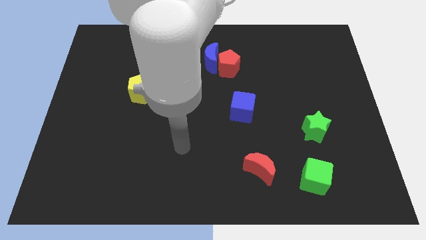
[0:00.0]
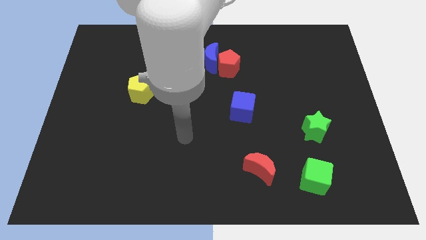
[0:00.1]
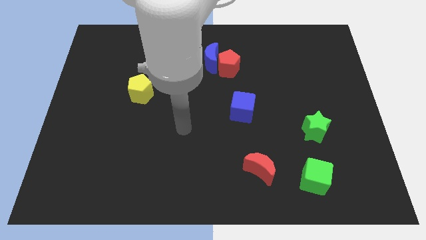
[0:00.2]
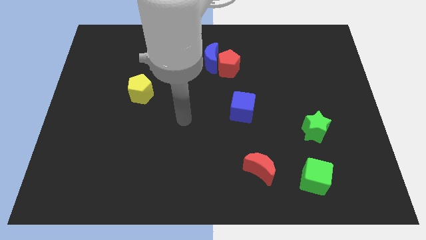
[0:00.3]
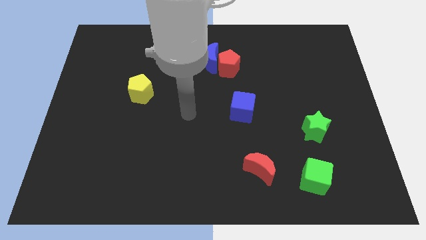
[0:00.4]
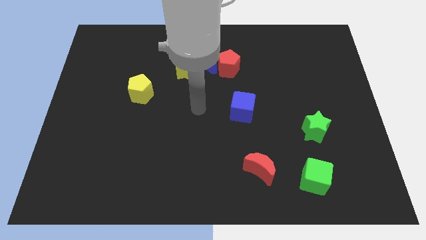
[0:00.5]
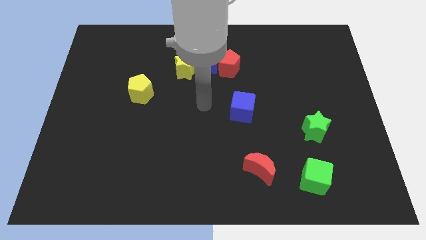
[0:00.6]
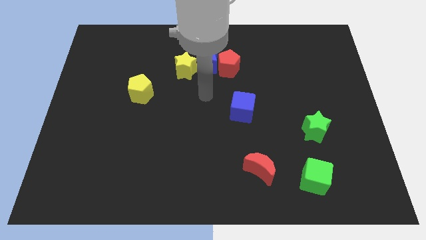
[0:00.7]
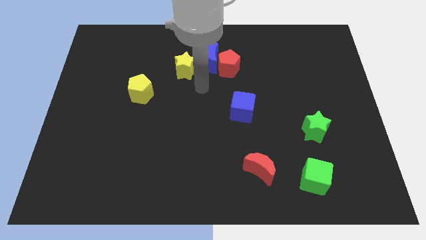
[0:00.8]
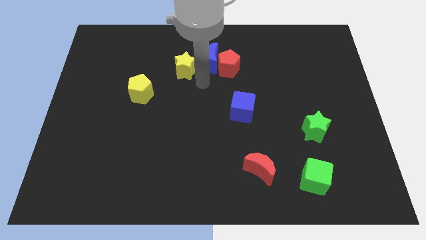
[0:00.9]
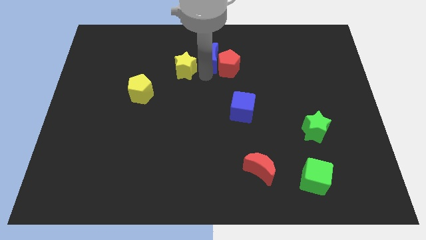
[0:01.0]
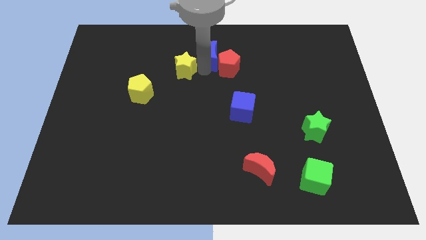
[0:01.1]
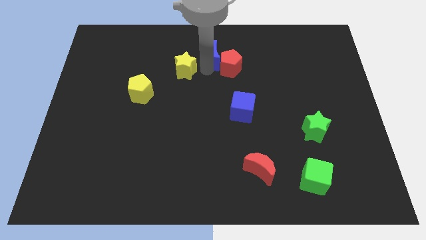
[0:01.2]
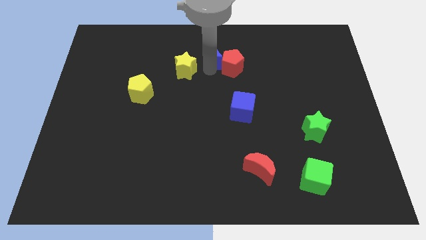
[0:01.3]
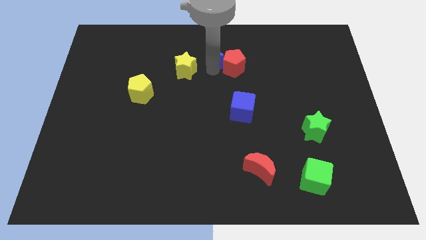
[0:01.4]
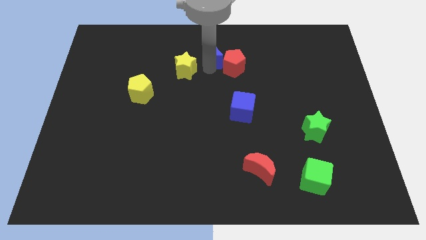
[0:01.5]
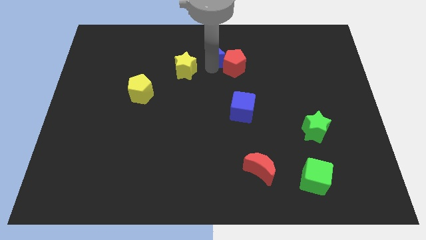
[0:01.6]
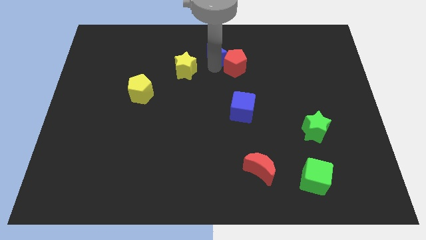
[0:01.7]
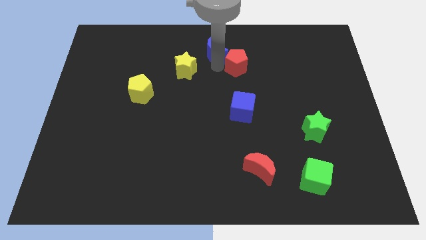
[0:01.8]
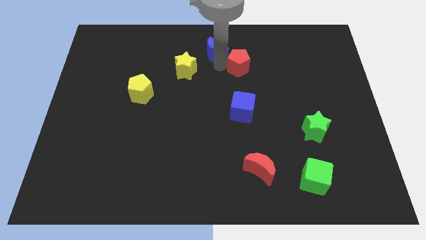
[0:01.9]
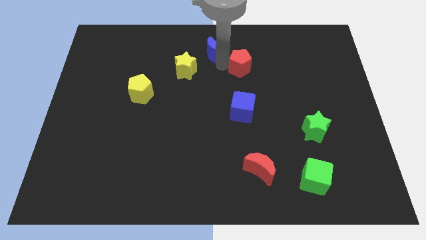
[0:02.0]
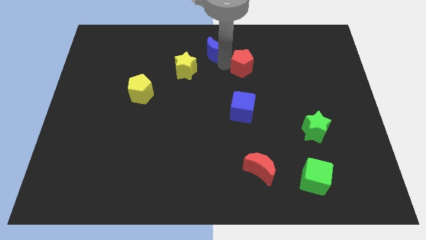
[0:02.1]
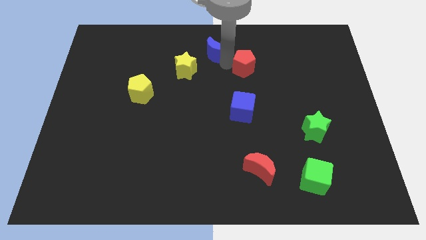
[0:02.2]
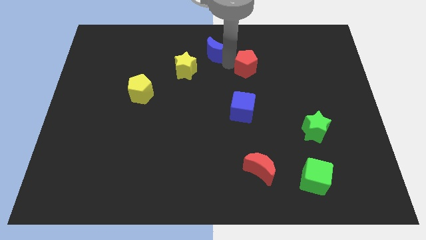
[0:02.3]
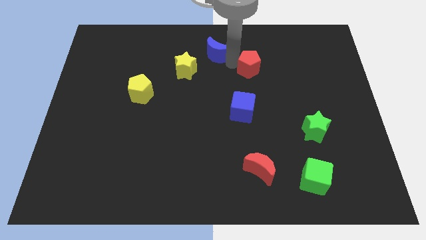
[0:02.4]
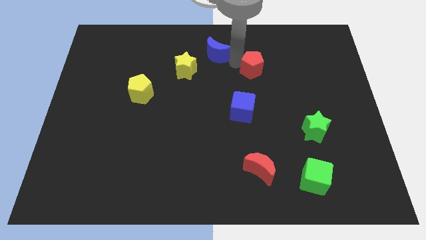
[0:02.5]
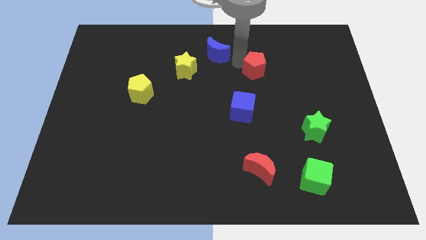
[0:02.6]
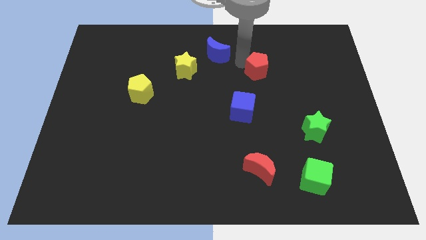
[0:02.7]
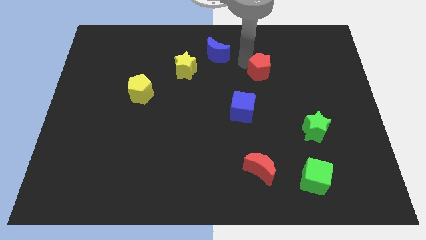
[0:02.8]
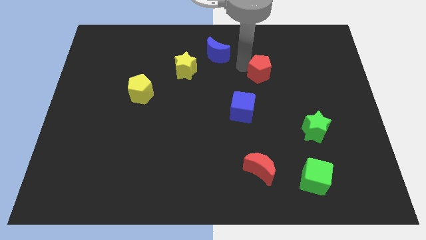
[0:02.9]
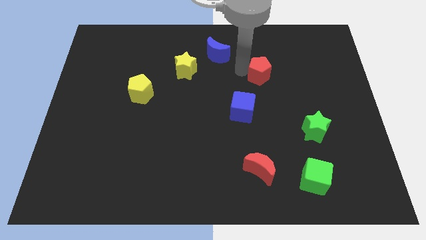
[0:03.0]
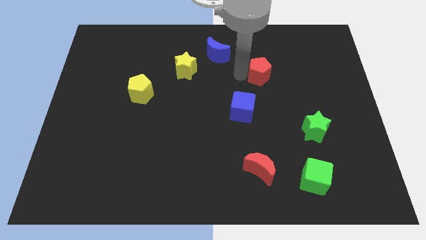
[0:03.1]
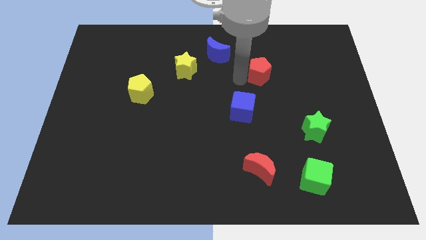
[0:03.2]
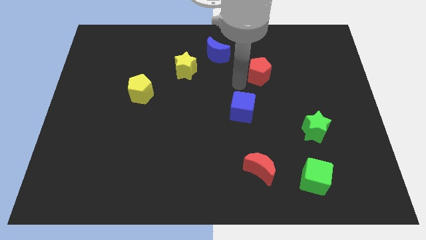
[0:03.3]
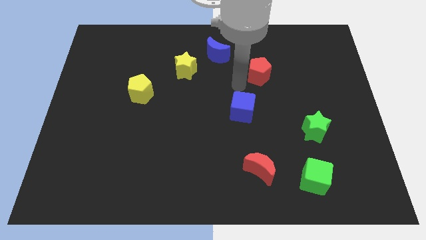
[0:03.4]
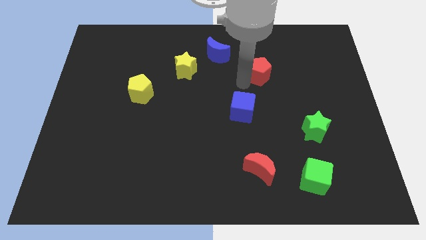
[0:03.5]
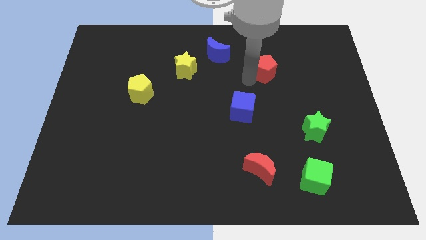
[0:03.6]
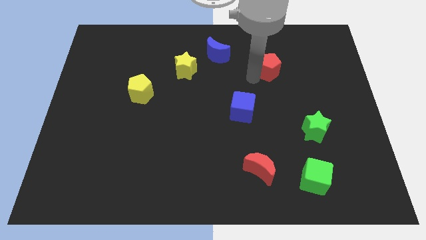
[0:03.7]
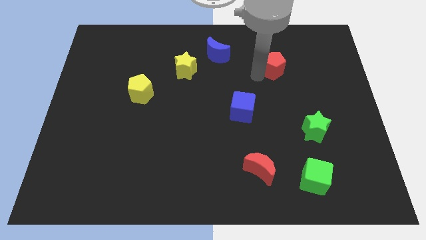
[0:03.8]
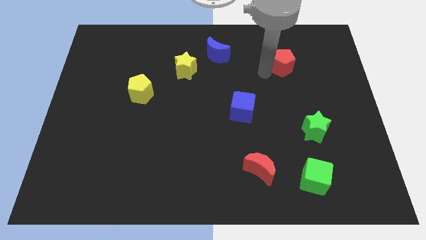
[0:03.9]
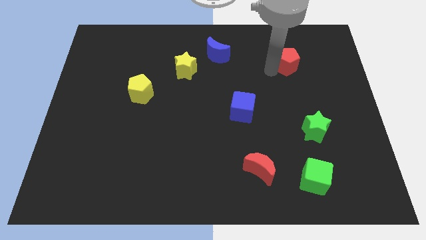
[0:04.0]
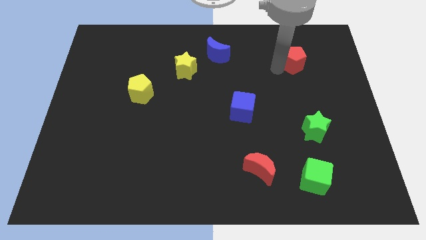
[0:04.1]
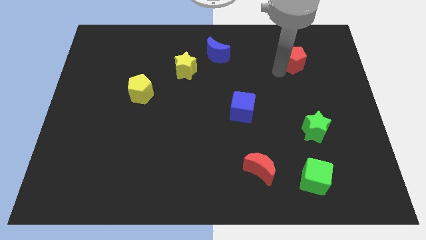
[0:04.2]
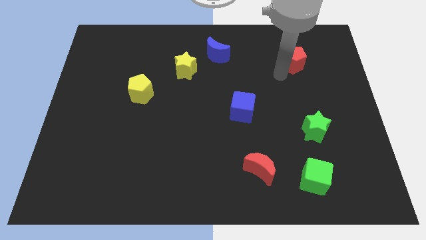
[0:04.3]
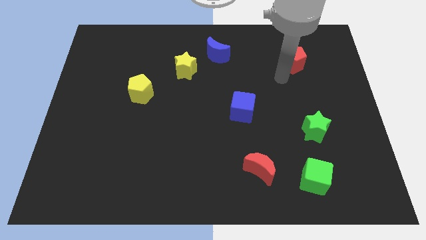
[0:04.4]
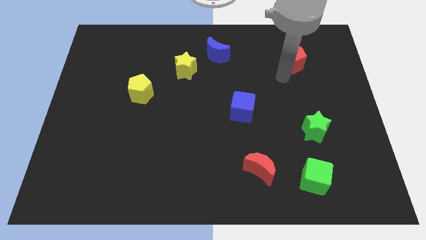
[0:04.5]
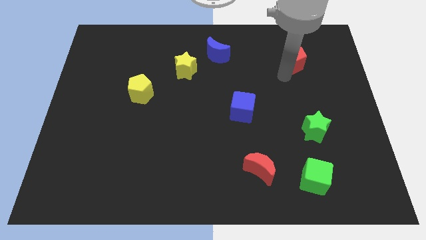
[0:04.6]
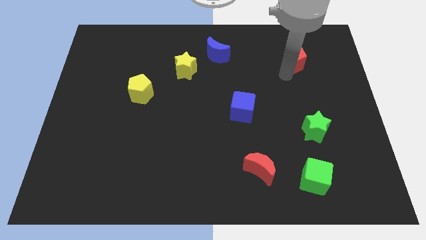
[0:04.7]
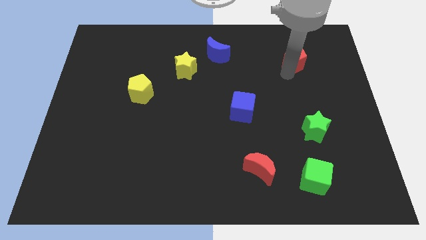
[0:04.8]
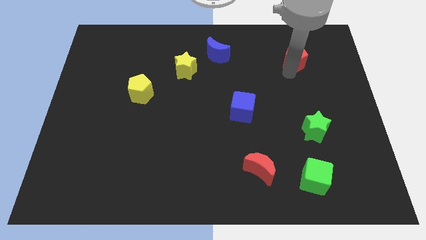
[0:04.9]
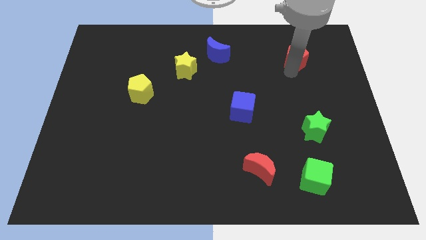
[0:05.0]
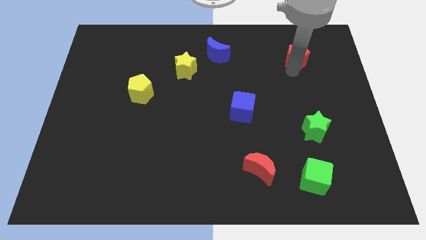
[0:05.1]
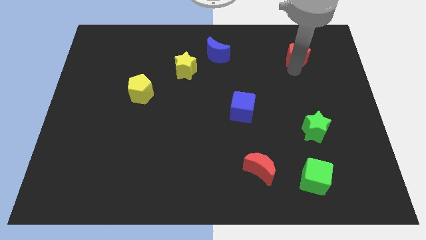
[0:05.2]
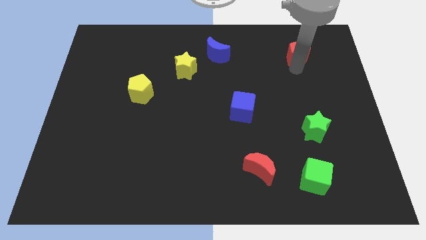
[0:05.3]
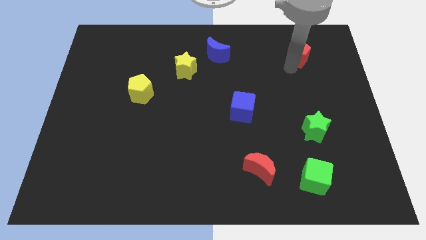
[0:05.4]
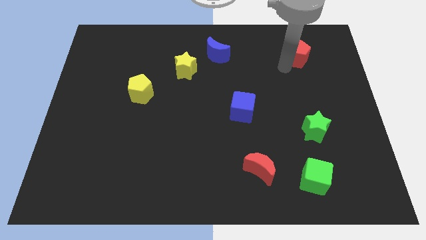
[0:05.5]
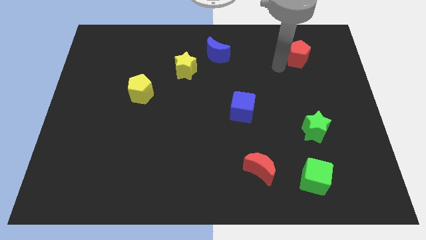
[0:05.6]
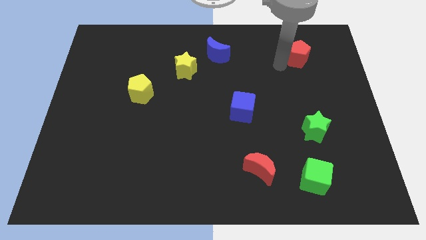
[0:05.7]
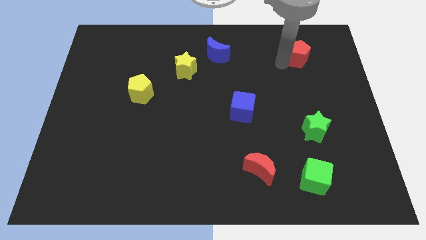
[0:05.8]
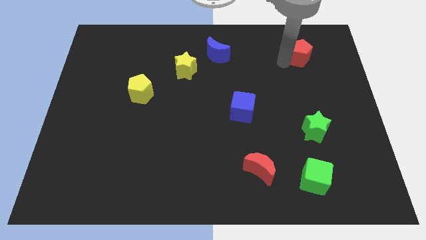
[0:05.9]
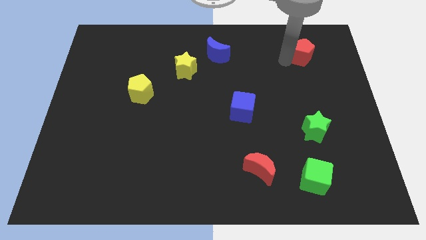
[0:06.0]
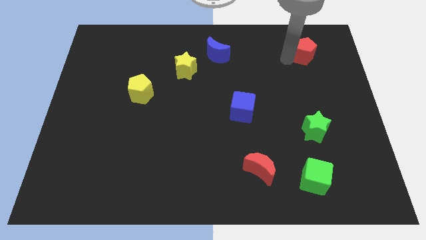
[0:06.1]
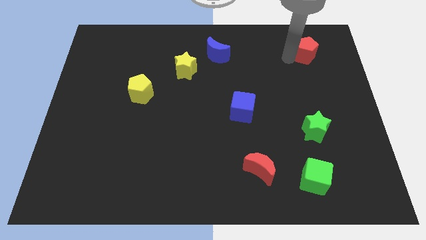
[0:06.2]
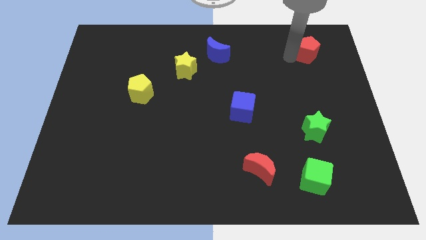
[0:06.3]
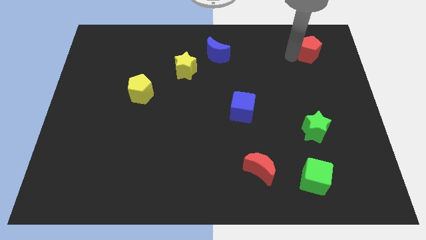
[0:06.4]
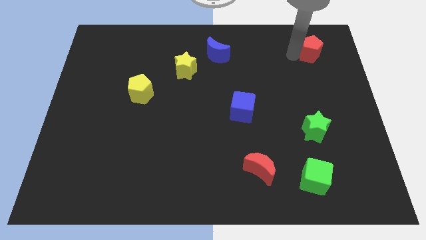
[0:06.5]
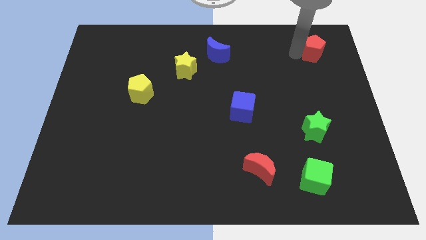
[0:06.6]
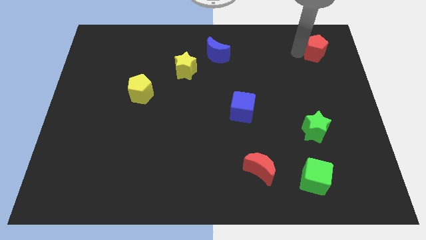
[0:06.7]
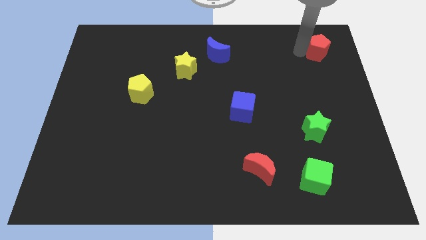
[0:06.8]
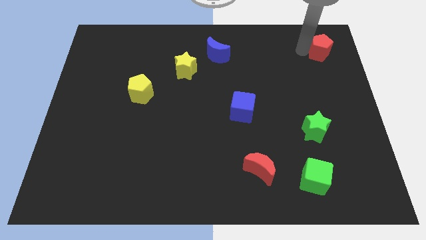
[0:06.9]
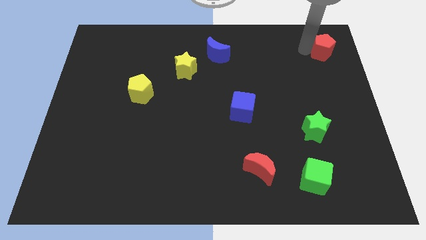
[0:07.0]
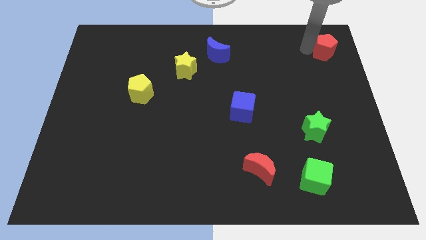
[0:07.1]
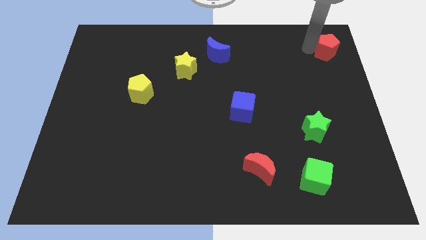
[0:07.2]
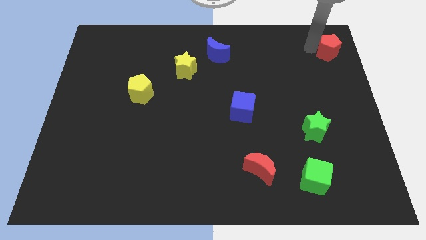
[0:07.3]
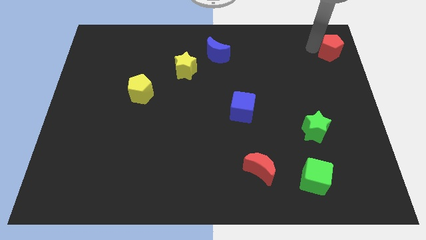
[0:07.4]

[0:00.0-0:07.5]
move the red pentagon to the upper right corner

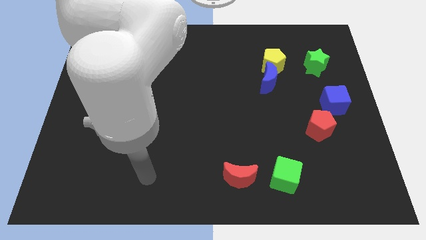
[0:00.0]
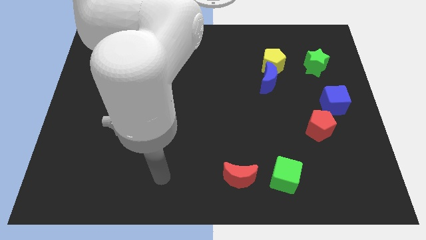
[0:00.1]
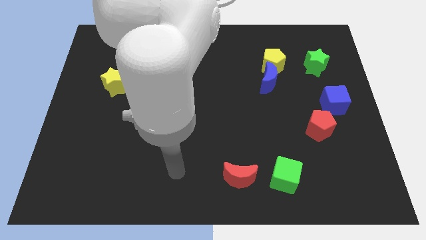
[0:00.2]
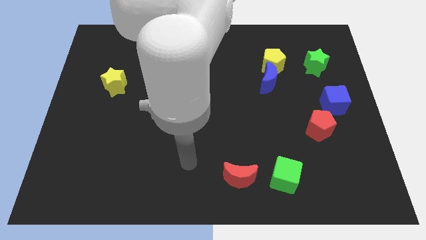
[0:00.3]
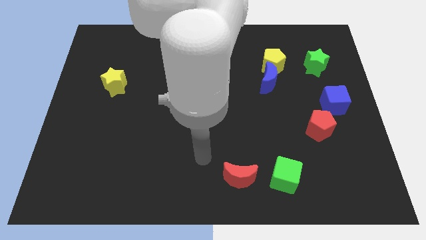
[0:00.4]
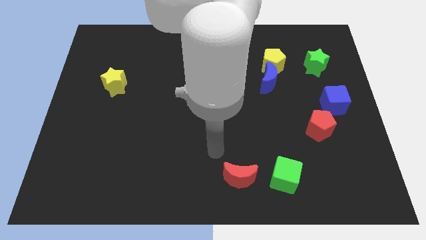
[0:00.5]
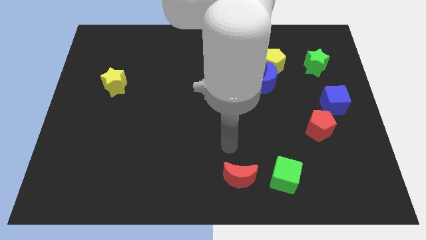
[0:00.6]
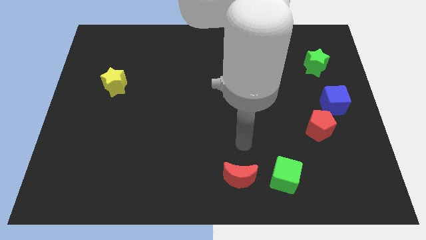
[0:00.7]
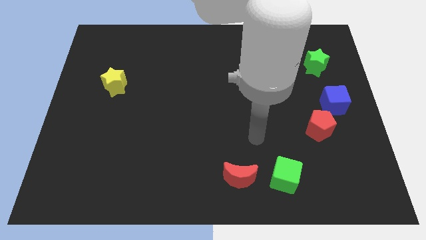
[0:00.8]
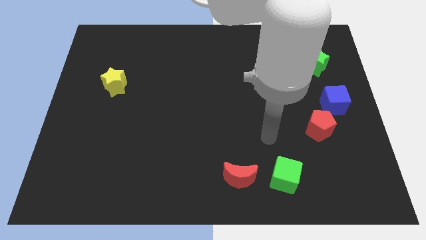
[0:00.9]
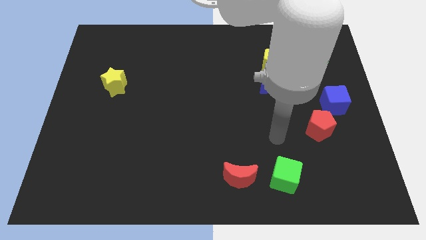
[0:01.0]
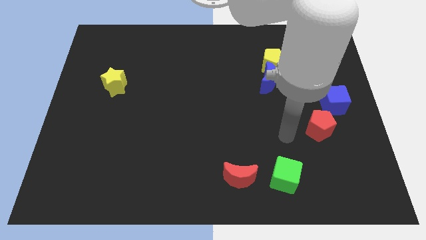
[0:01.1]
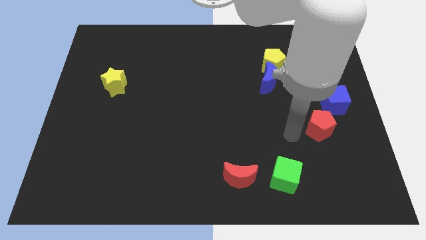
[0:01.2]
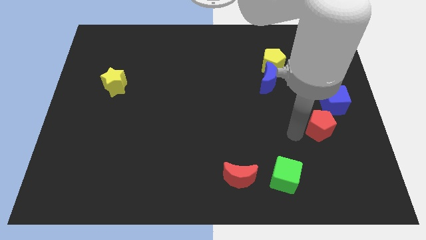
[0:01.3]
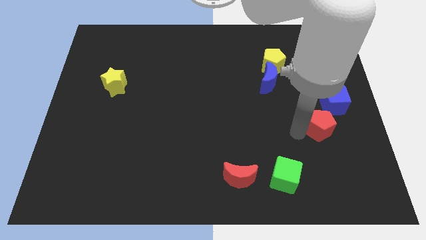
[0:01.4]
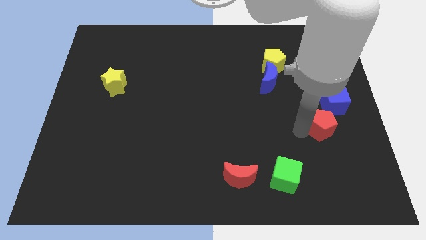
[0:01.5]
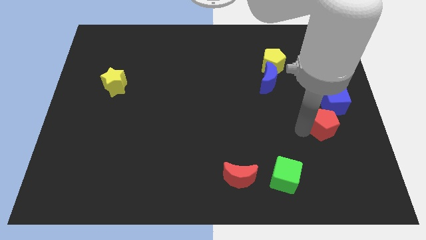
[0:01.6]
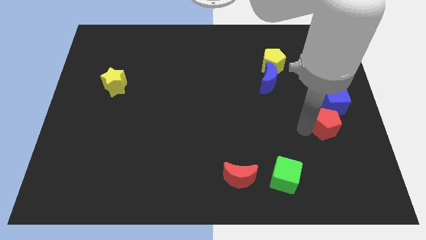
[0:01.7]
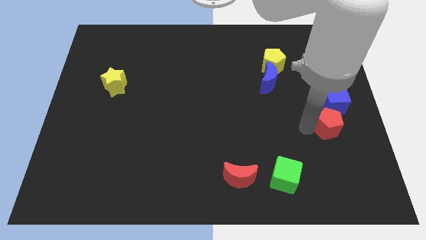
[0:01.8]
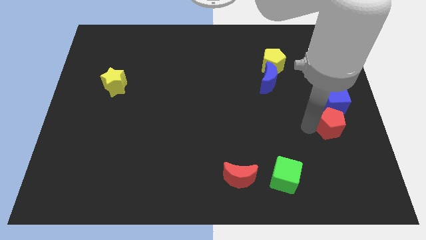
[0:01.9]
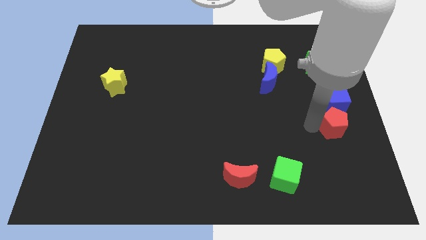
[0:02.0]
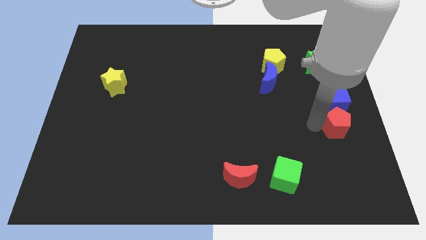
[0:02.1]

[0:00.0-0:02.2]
put the red pentagon to the center right
